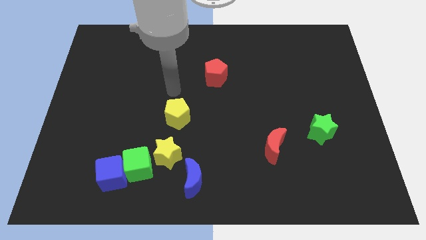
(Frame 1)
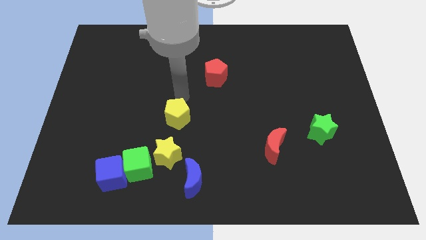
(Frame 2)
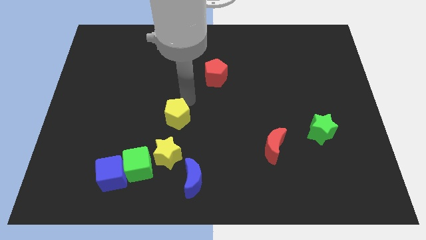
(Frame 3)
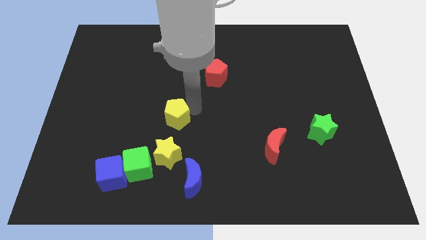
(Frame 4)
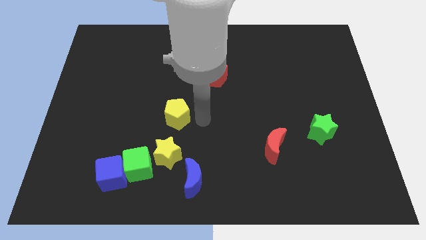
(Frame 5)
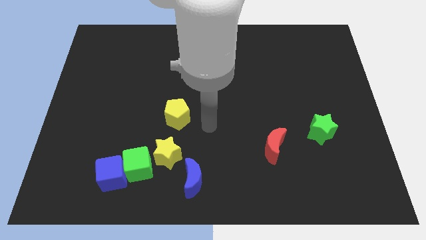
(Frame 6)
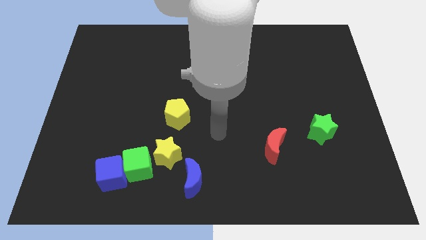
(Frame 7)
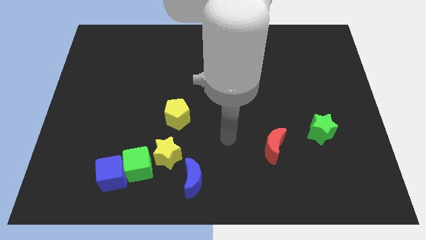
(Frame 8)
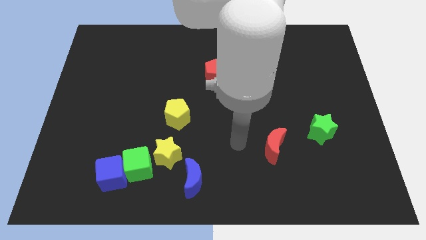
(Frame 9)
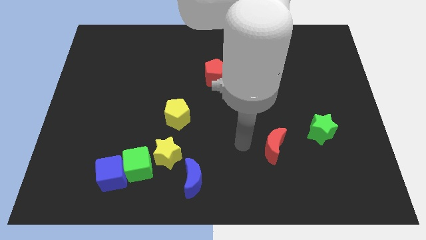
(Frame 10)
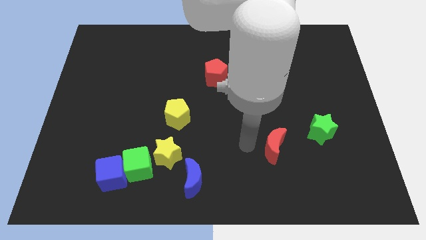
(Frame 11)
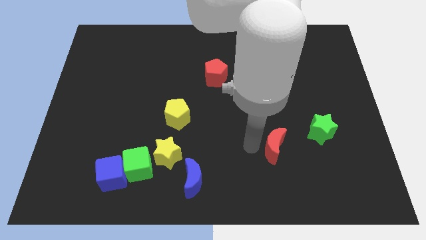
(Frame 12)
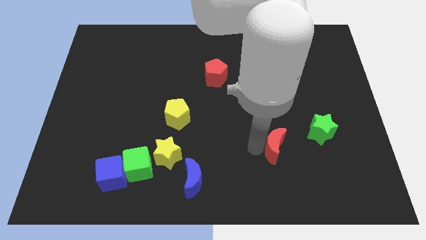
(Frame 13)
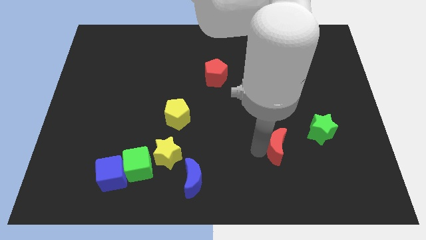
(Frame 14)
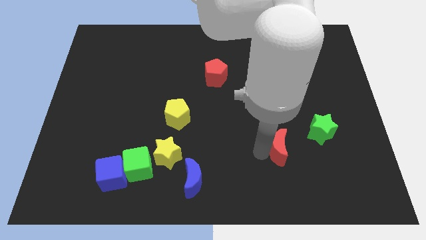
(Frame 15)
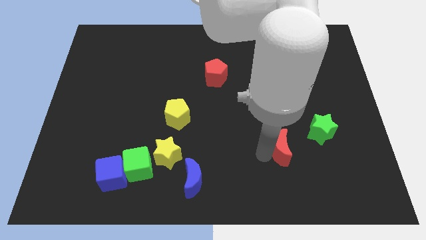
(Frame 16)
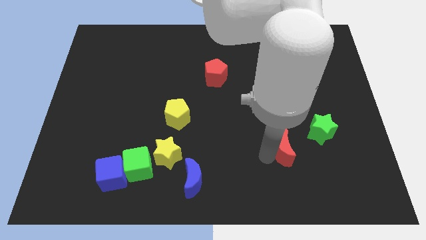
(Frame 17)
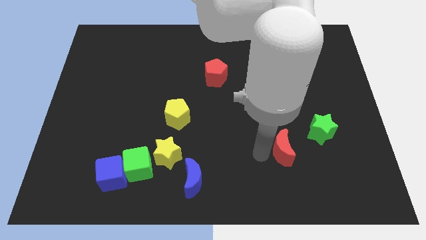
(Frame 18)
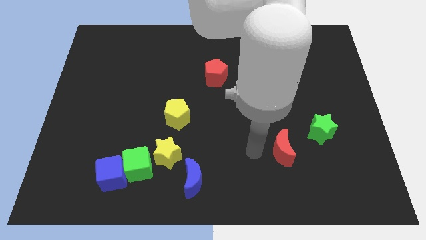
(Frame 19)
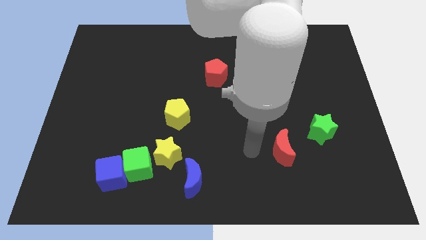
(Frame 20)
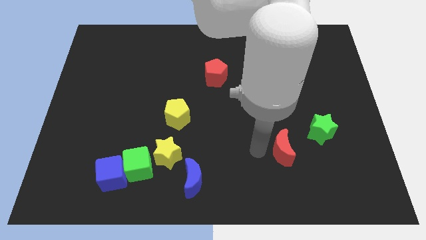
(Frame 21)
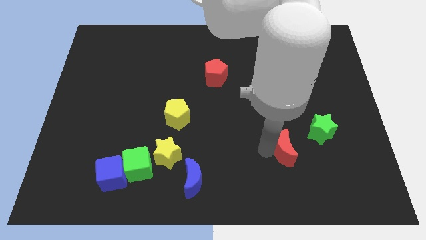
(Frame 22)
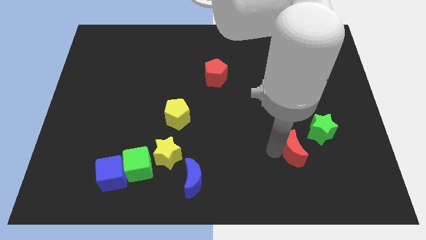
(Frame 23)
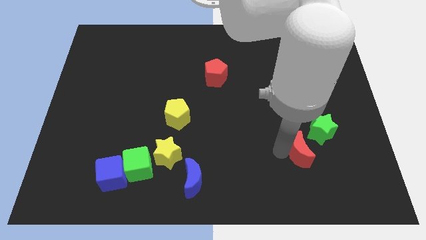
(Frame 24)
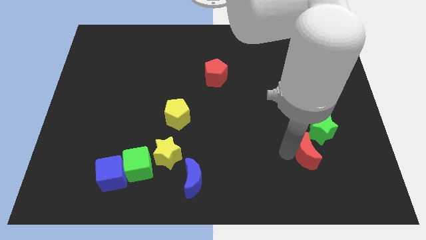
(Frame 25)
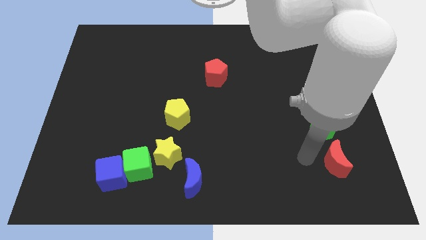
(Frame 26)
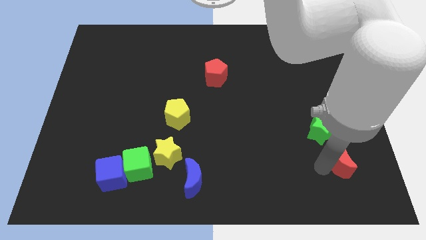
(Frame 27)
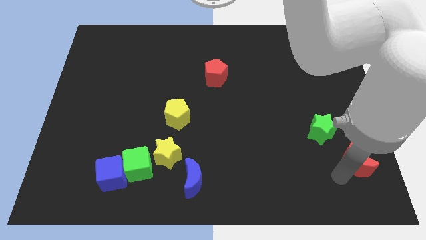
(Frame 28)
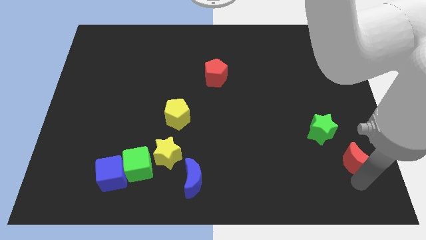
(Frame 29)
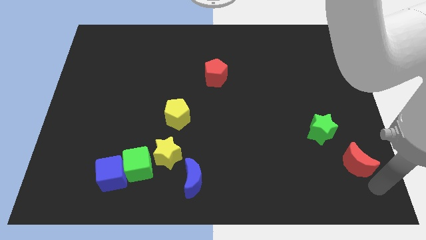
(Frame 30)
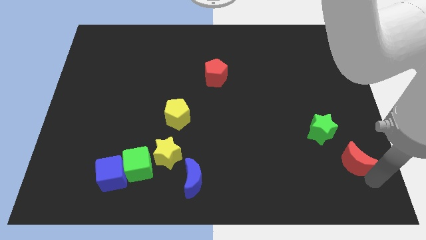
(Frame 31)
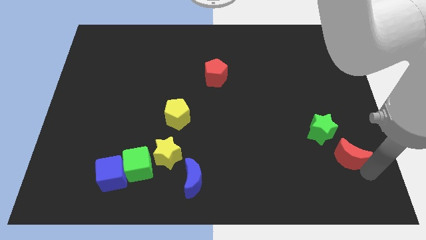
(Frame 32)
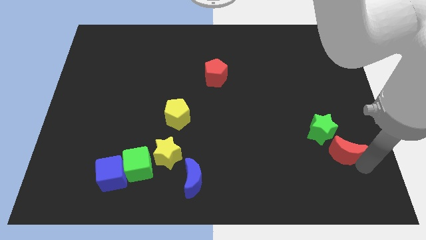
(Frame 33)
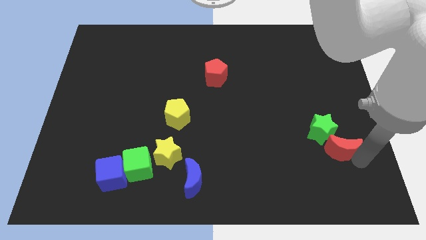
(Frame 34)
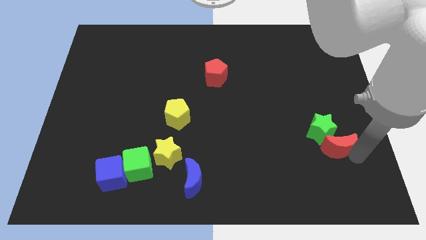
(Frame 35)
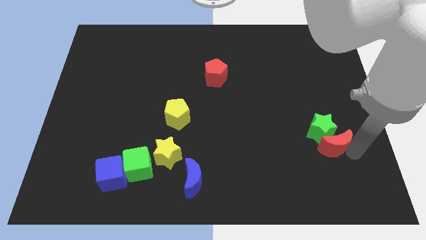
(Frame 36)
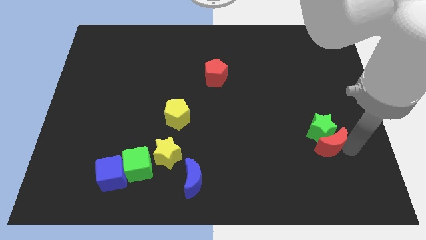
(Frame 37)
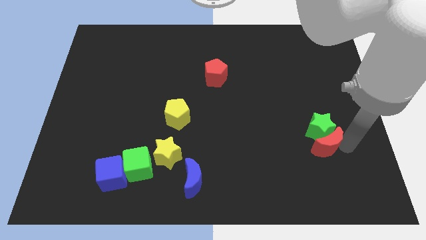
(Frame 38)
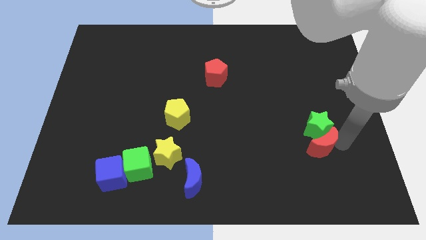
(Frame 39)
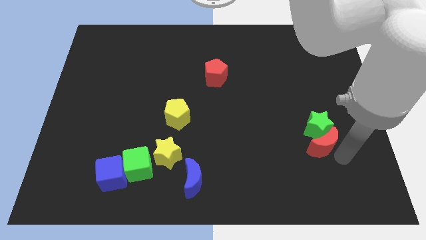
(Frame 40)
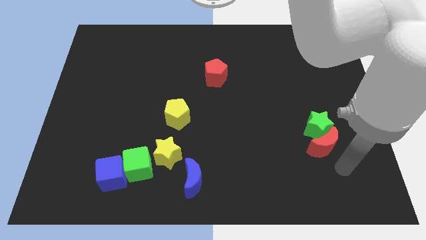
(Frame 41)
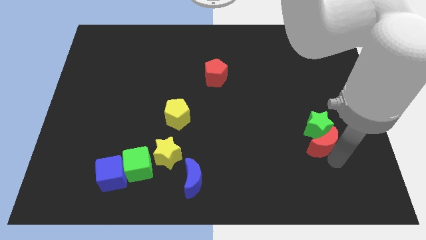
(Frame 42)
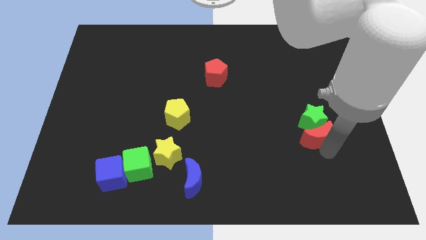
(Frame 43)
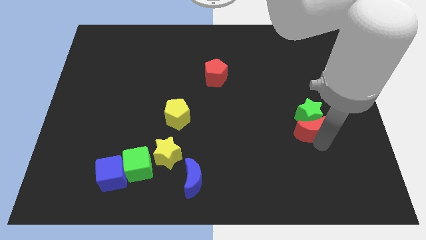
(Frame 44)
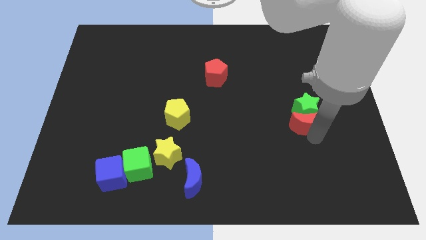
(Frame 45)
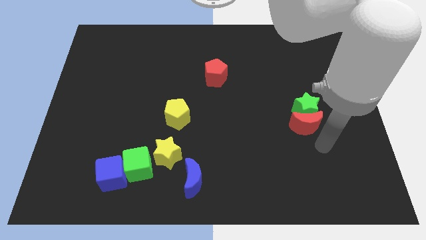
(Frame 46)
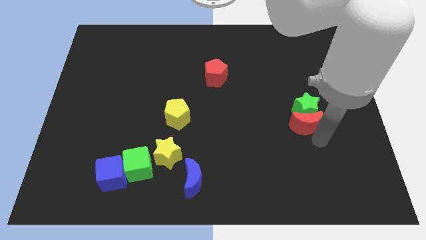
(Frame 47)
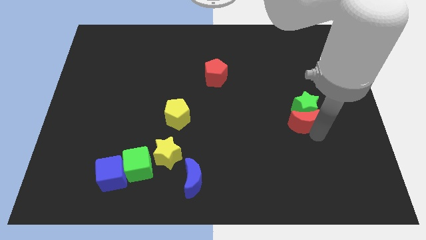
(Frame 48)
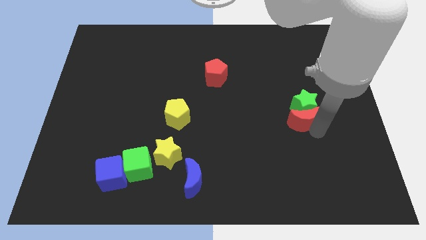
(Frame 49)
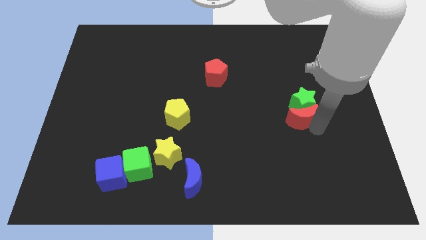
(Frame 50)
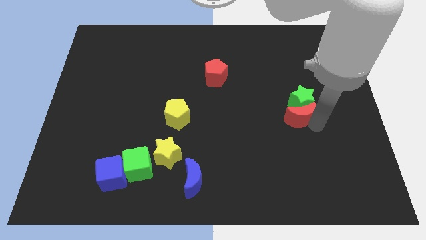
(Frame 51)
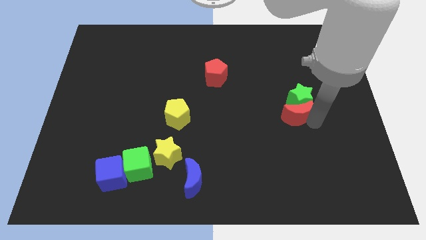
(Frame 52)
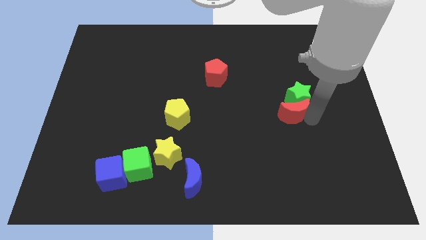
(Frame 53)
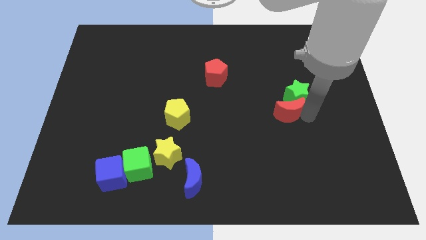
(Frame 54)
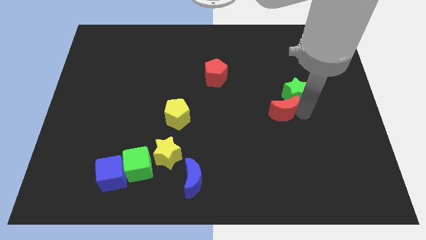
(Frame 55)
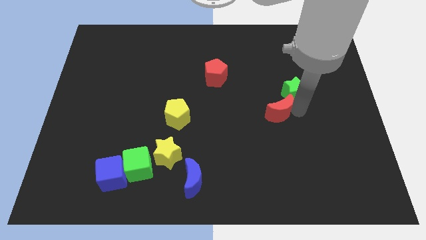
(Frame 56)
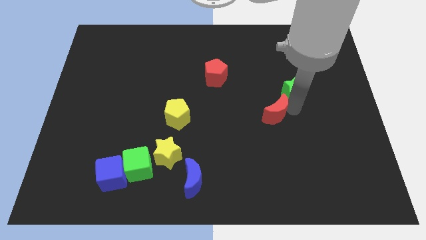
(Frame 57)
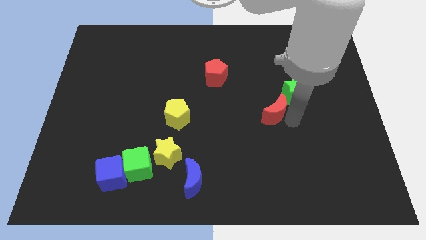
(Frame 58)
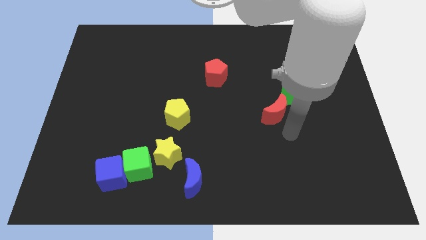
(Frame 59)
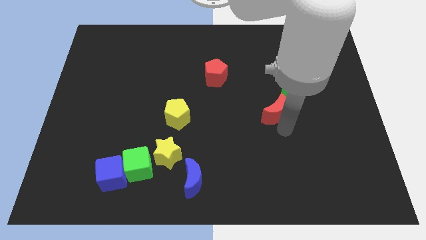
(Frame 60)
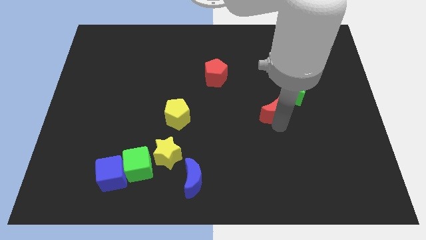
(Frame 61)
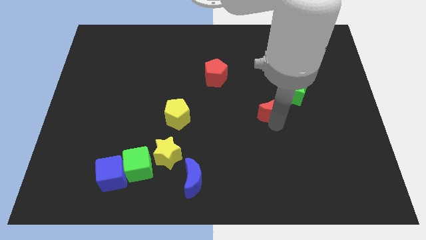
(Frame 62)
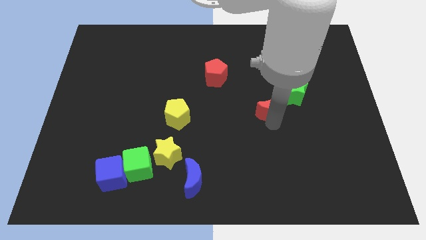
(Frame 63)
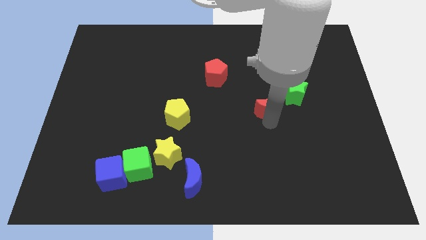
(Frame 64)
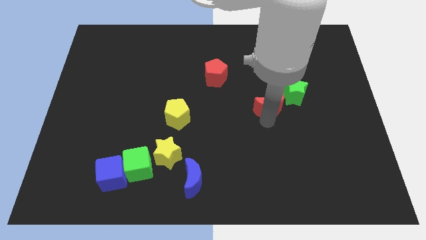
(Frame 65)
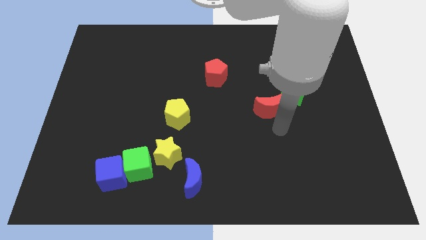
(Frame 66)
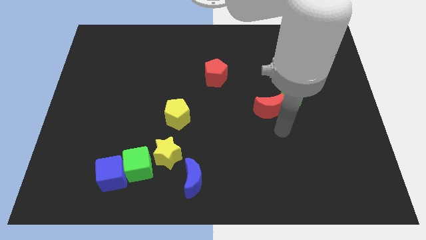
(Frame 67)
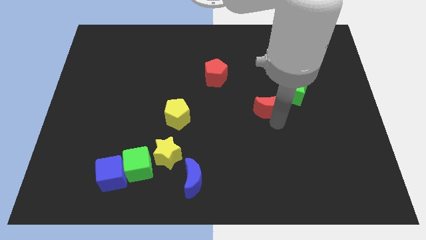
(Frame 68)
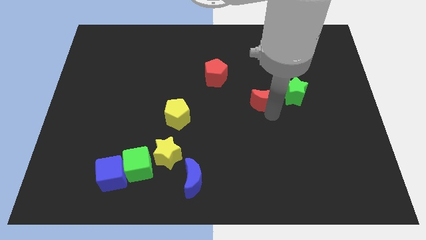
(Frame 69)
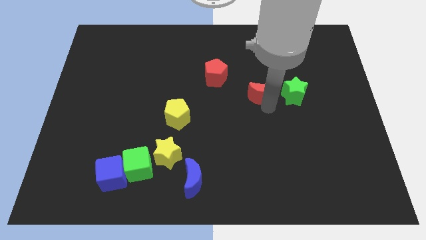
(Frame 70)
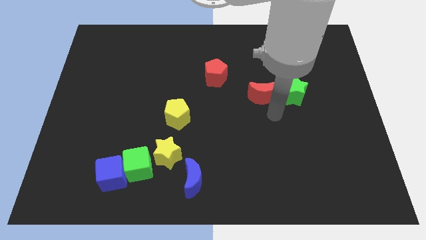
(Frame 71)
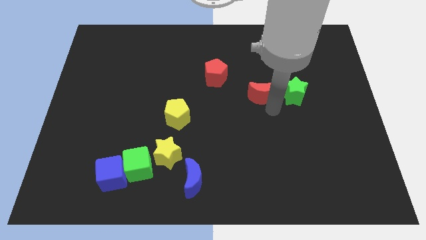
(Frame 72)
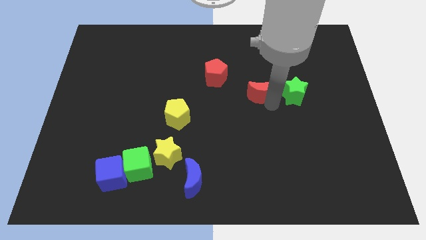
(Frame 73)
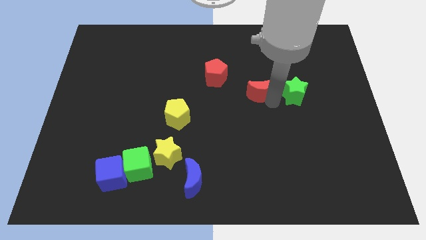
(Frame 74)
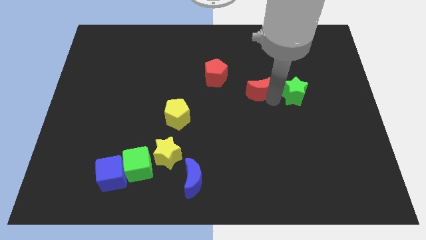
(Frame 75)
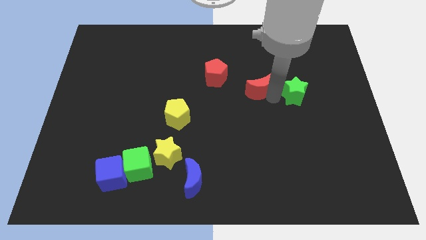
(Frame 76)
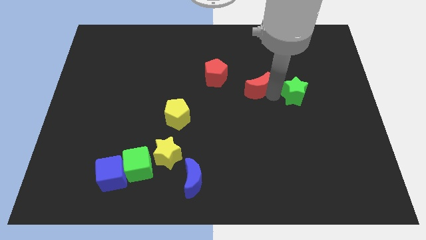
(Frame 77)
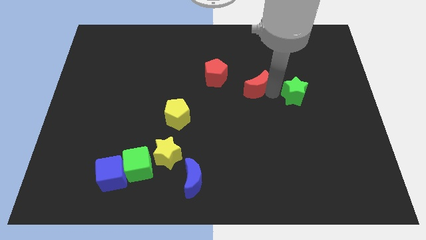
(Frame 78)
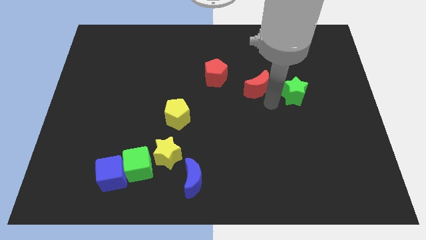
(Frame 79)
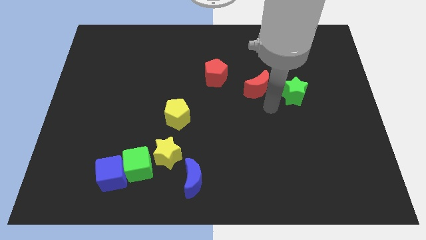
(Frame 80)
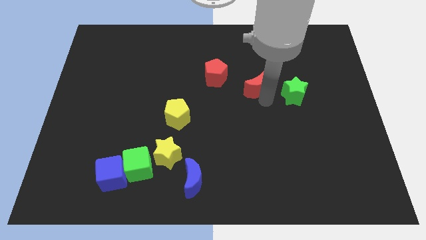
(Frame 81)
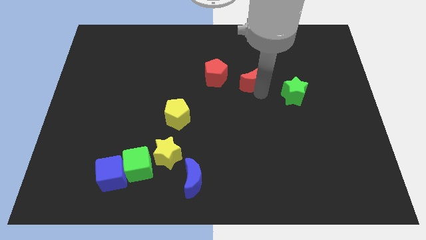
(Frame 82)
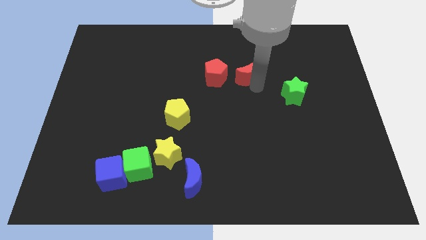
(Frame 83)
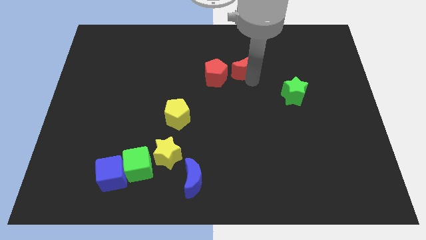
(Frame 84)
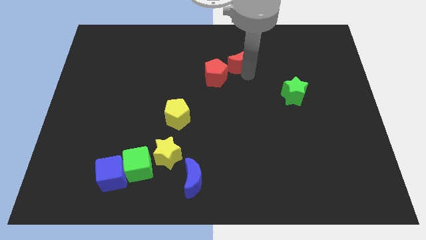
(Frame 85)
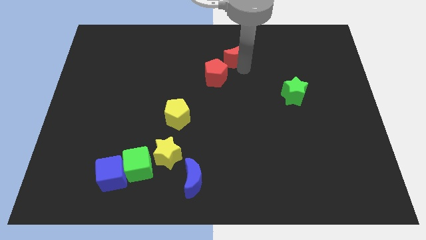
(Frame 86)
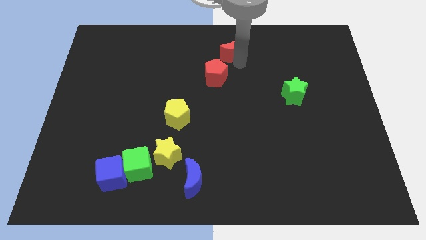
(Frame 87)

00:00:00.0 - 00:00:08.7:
move the red moon to the top side
